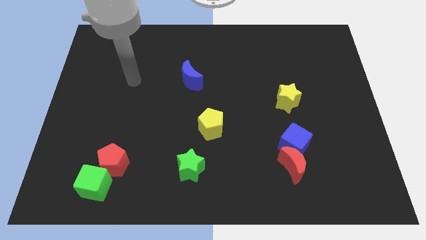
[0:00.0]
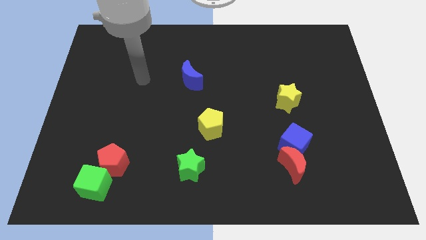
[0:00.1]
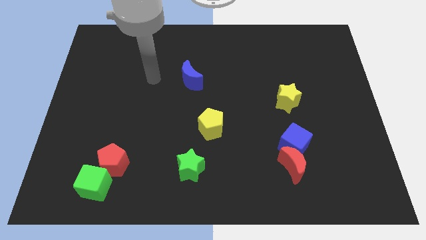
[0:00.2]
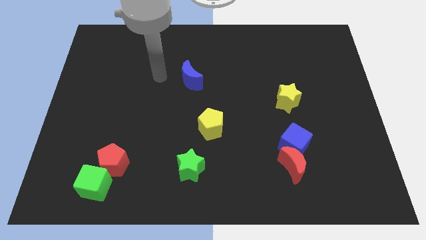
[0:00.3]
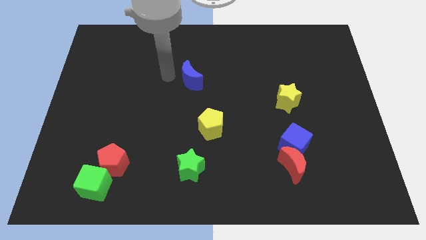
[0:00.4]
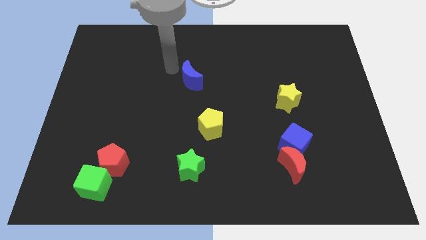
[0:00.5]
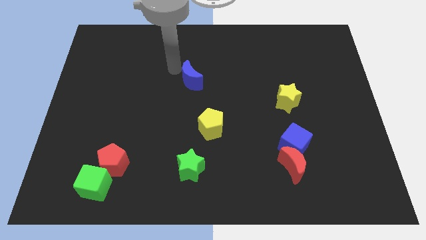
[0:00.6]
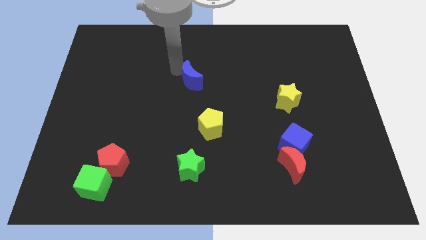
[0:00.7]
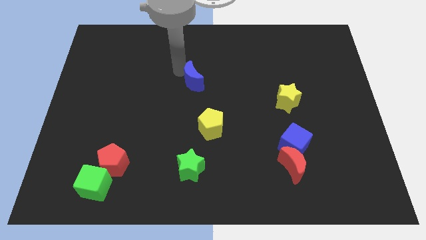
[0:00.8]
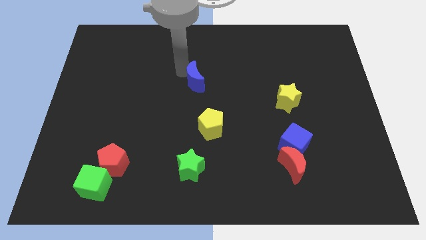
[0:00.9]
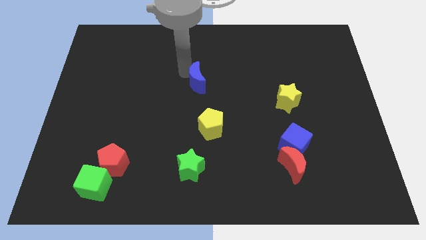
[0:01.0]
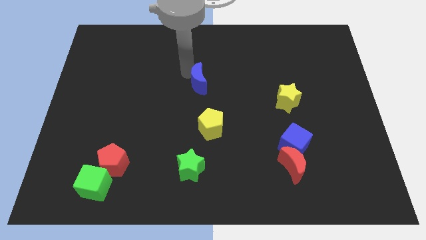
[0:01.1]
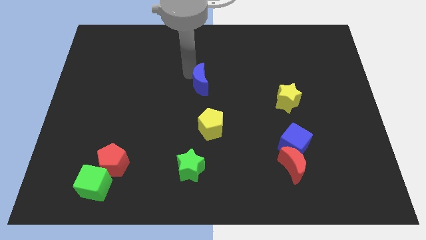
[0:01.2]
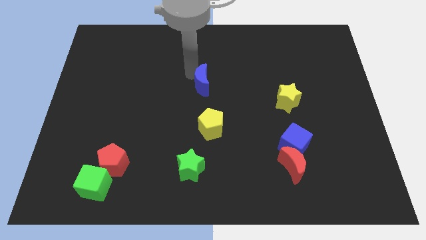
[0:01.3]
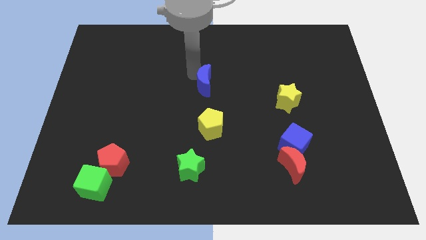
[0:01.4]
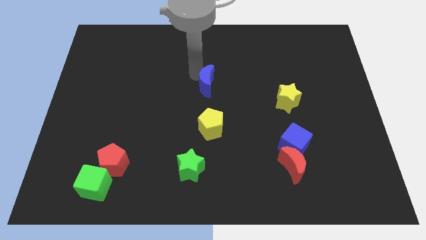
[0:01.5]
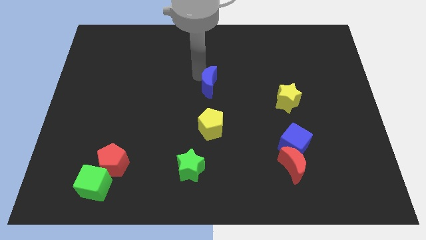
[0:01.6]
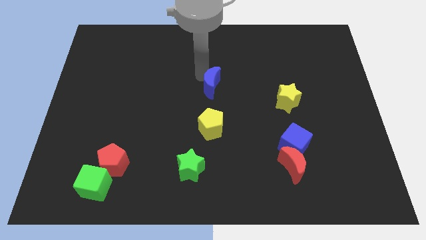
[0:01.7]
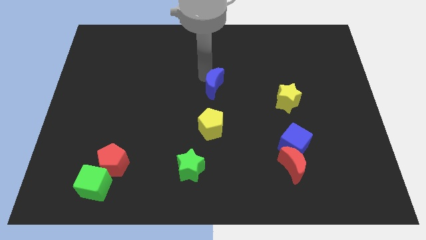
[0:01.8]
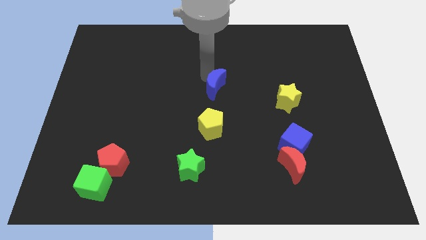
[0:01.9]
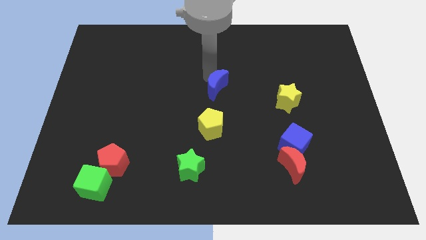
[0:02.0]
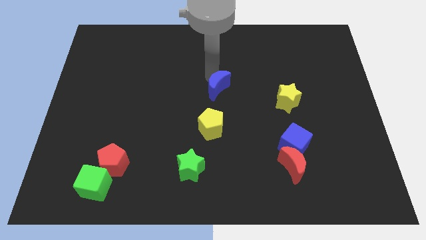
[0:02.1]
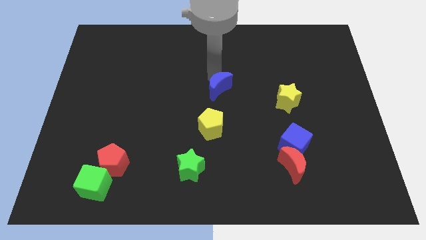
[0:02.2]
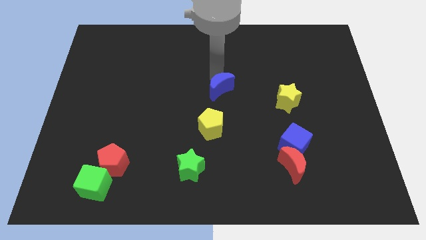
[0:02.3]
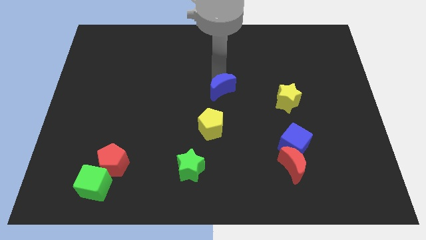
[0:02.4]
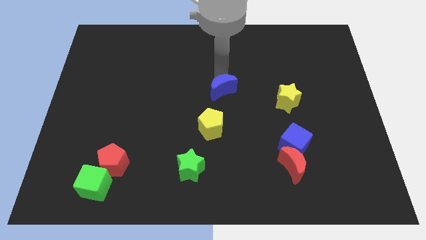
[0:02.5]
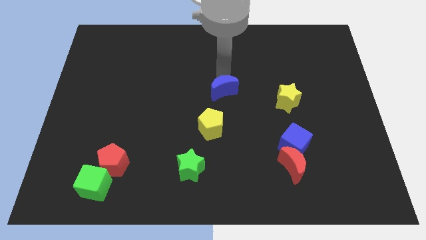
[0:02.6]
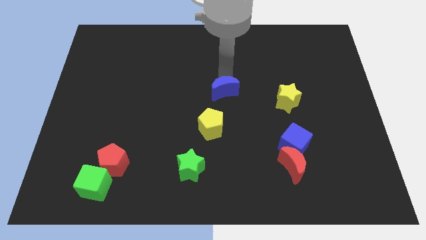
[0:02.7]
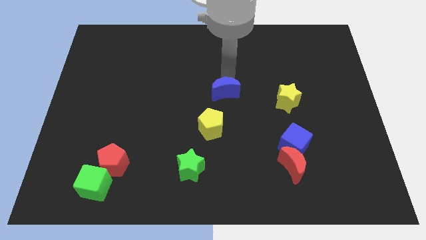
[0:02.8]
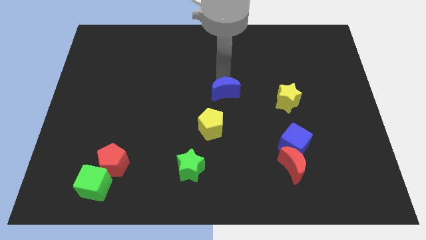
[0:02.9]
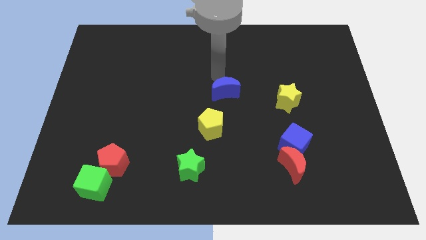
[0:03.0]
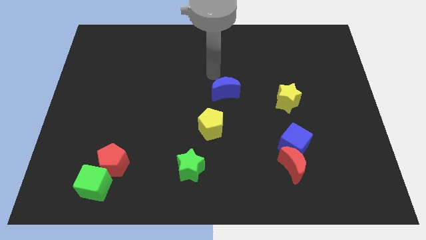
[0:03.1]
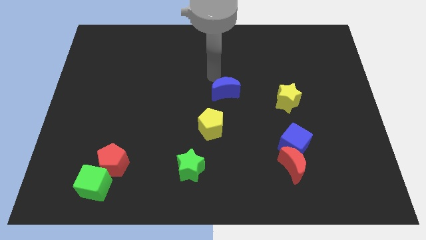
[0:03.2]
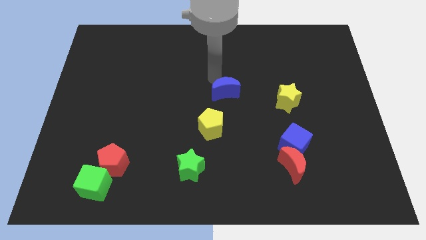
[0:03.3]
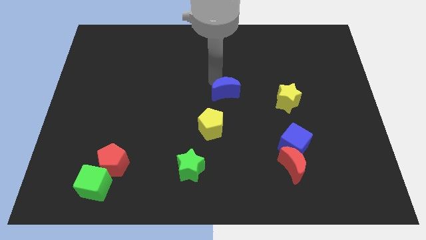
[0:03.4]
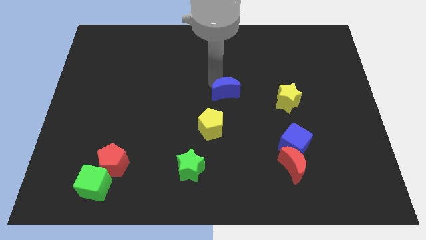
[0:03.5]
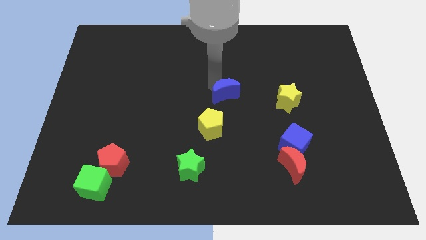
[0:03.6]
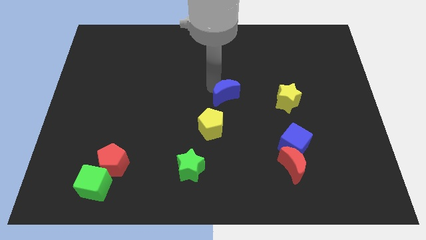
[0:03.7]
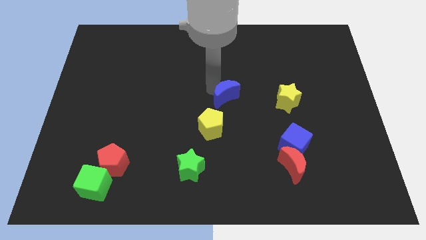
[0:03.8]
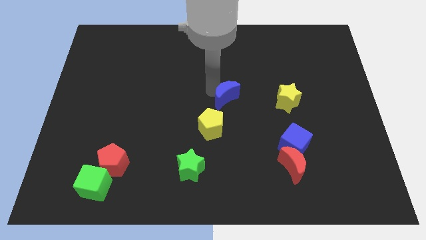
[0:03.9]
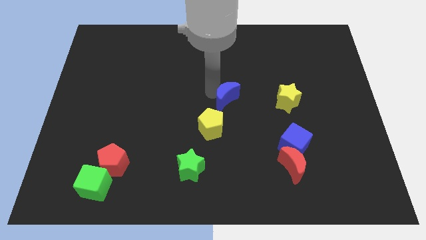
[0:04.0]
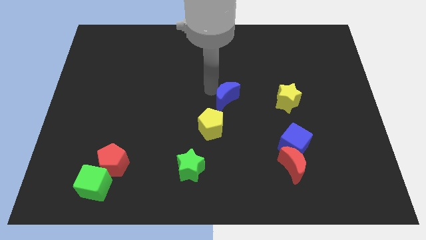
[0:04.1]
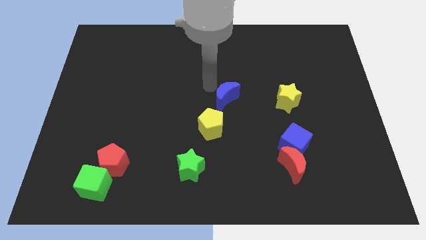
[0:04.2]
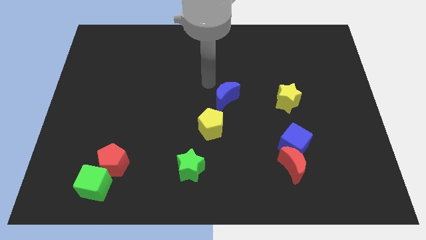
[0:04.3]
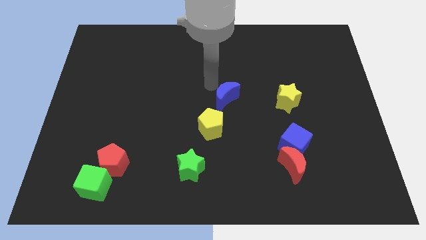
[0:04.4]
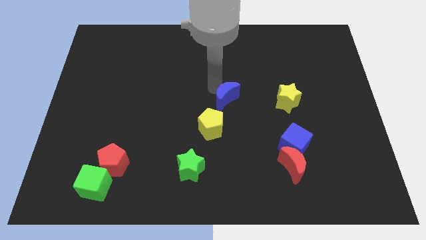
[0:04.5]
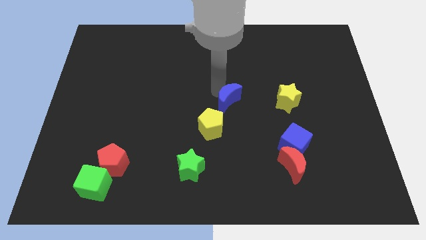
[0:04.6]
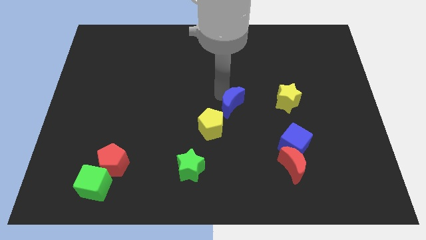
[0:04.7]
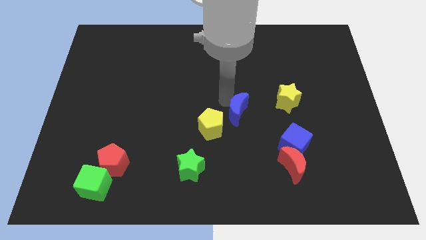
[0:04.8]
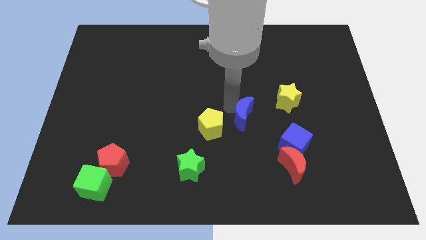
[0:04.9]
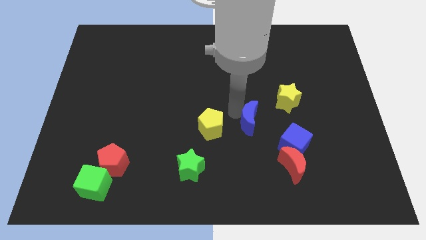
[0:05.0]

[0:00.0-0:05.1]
move the blue moon diagonally up and to the left of the blue cube

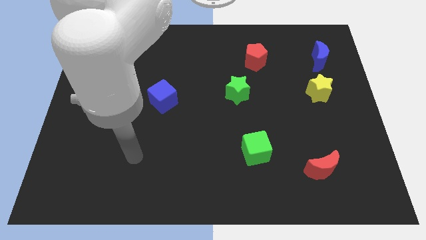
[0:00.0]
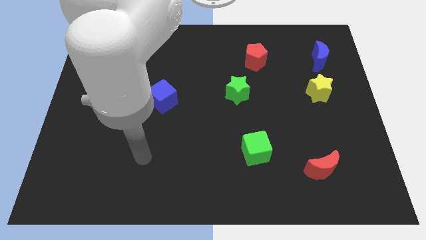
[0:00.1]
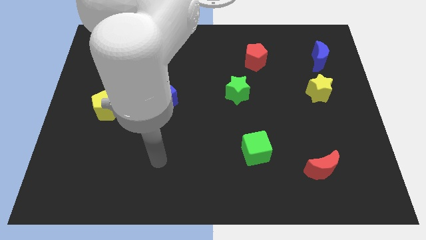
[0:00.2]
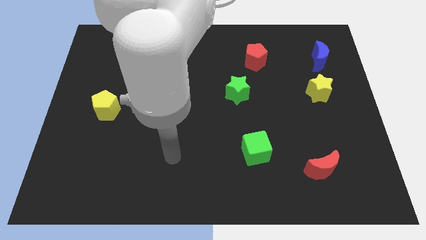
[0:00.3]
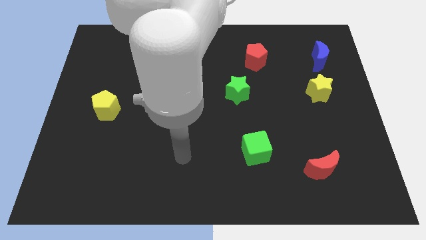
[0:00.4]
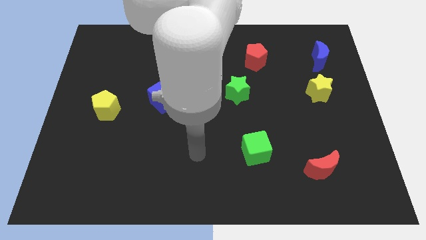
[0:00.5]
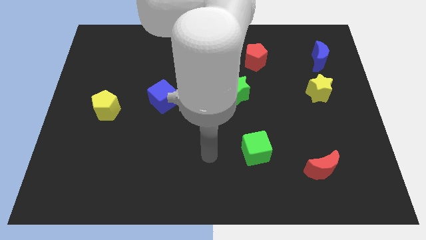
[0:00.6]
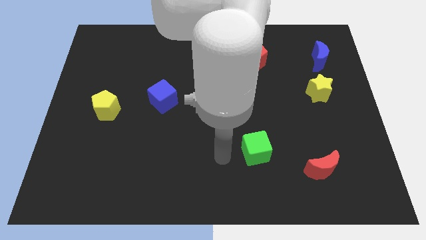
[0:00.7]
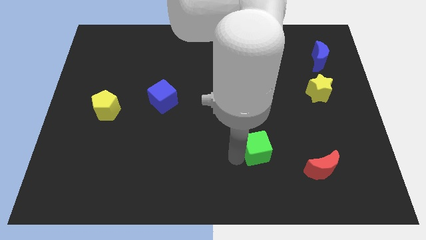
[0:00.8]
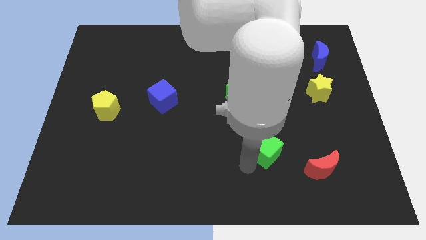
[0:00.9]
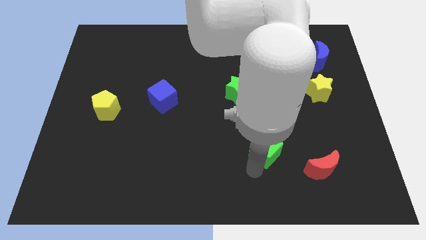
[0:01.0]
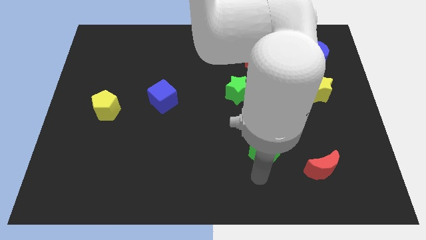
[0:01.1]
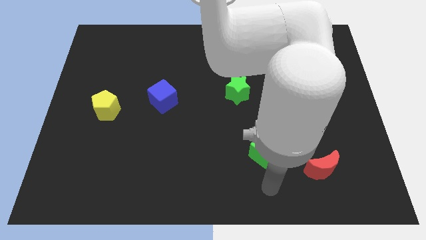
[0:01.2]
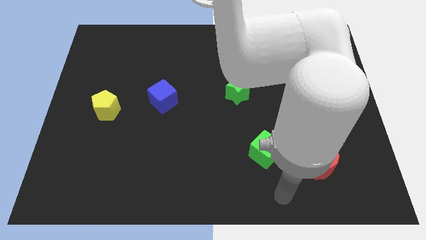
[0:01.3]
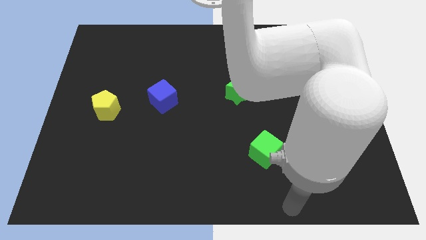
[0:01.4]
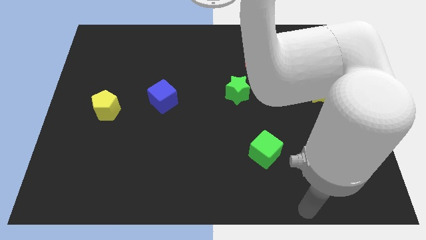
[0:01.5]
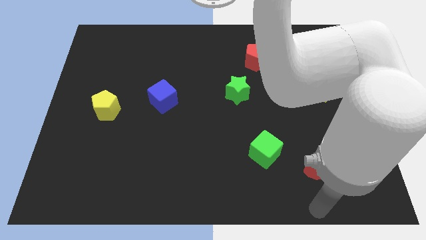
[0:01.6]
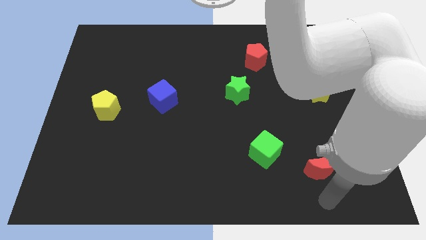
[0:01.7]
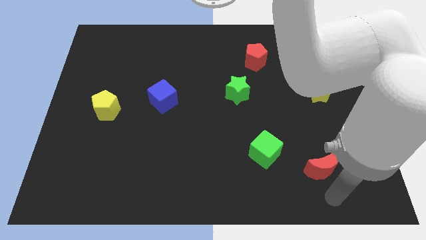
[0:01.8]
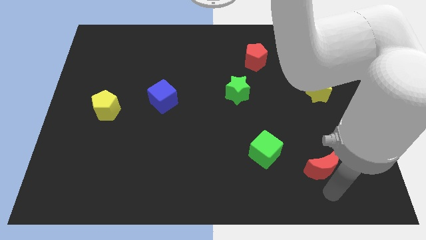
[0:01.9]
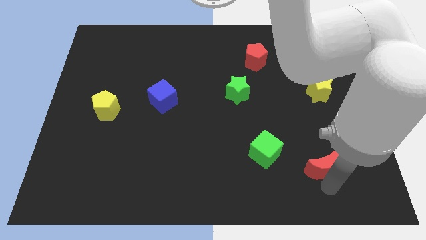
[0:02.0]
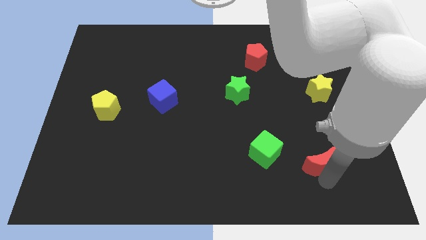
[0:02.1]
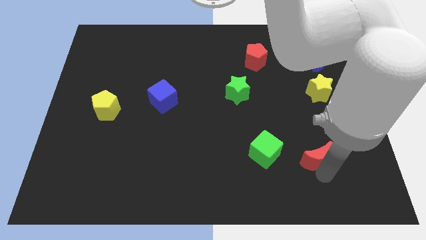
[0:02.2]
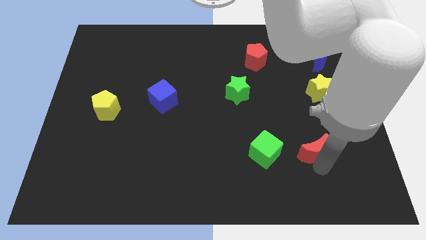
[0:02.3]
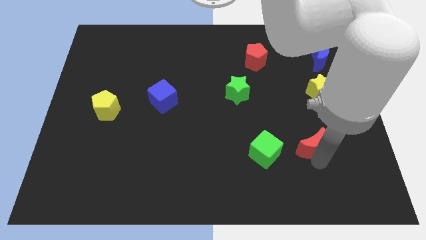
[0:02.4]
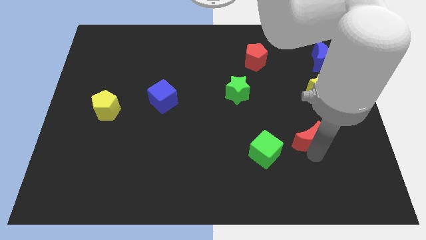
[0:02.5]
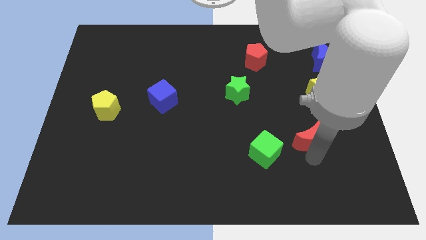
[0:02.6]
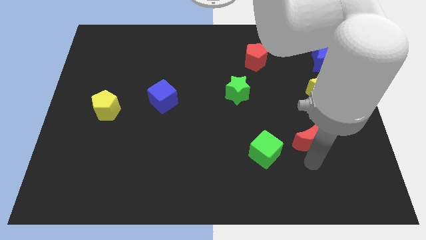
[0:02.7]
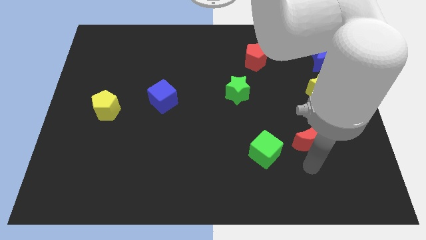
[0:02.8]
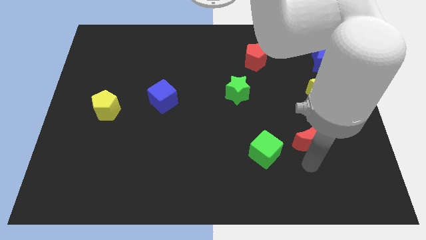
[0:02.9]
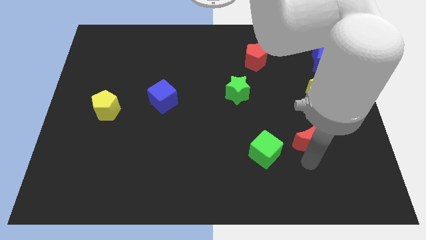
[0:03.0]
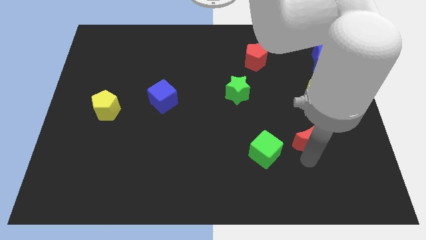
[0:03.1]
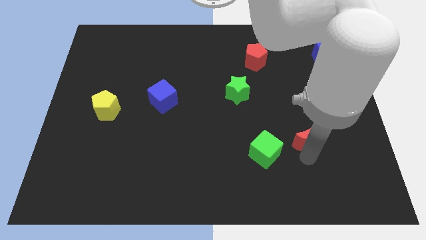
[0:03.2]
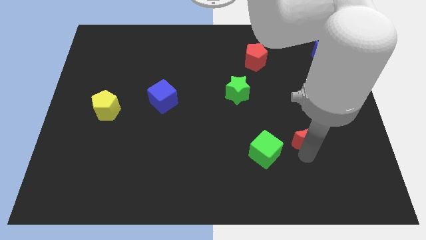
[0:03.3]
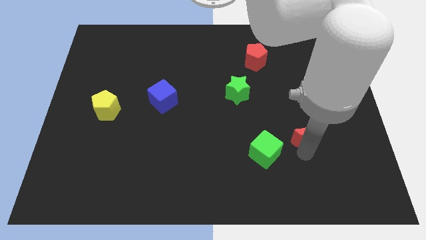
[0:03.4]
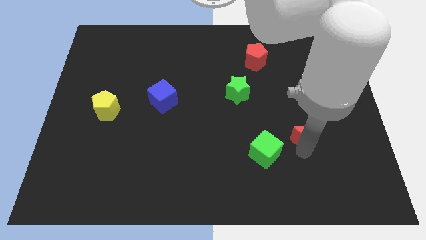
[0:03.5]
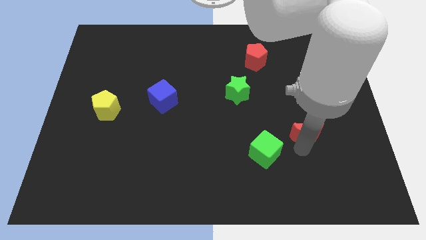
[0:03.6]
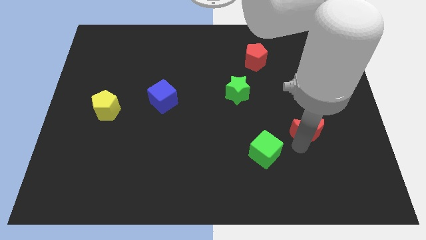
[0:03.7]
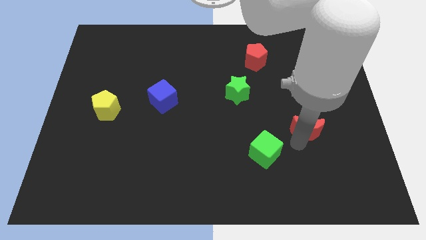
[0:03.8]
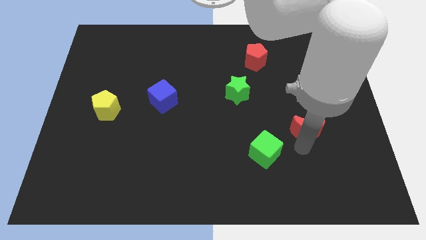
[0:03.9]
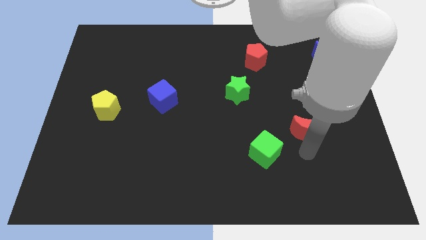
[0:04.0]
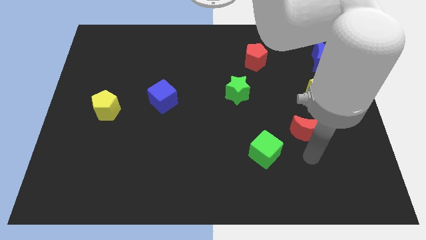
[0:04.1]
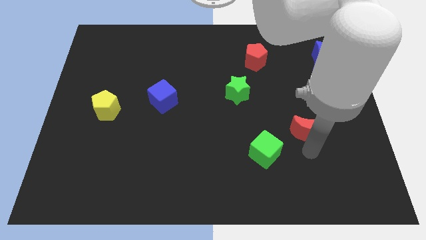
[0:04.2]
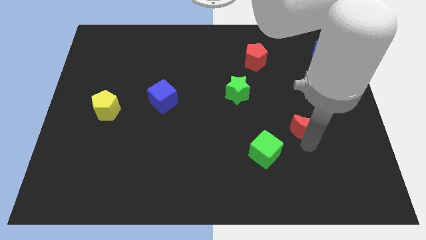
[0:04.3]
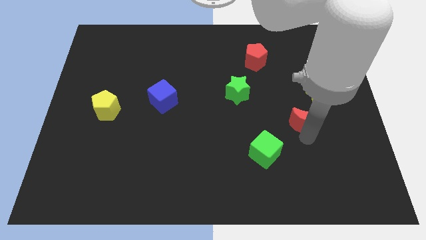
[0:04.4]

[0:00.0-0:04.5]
slide the red moon to the bottom left of the yellow star
